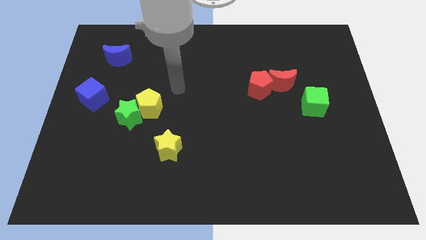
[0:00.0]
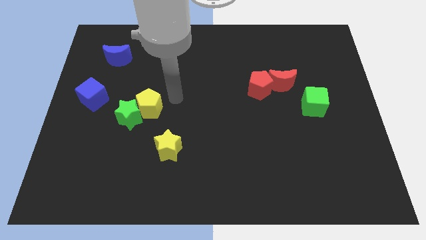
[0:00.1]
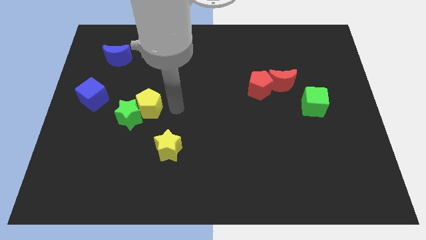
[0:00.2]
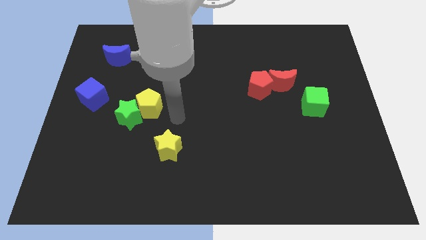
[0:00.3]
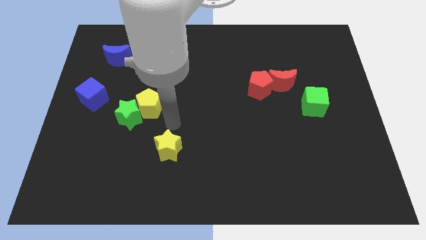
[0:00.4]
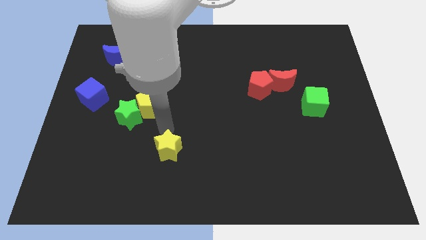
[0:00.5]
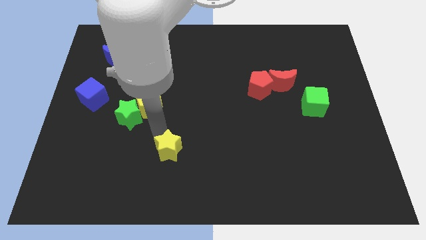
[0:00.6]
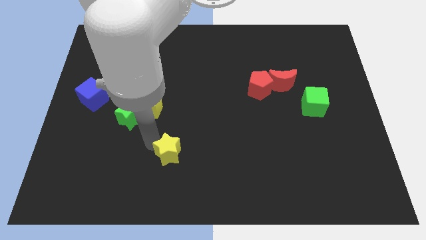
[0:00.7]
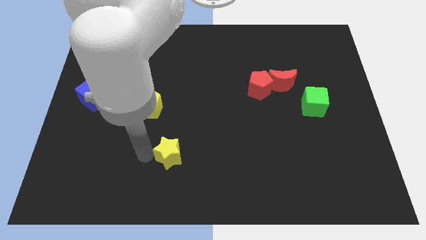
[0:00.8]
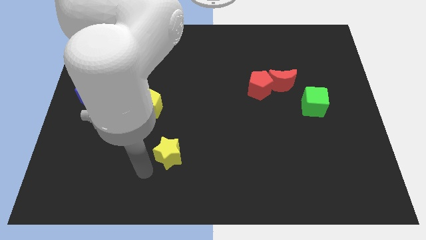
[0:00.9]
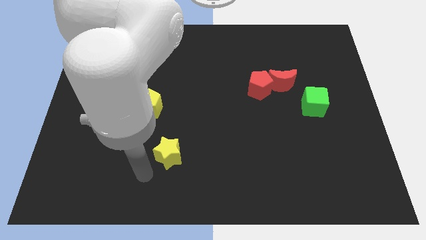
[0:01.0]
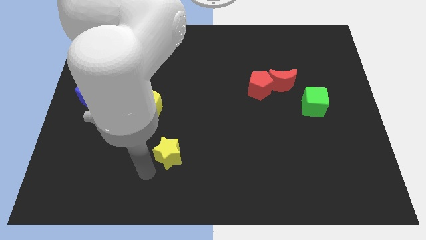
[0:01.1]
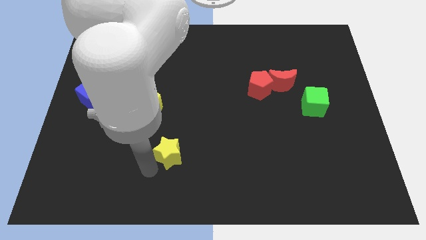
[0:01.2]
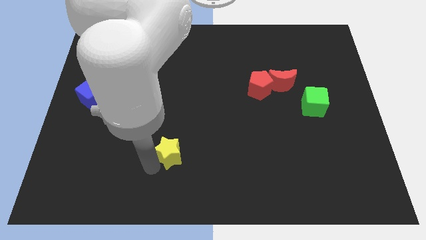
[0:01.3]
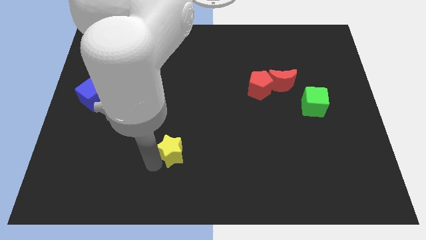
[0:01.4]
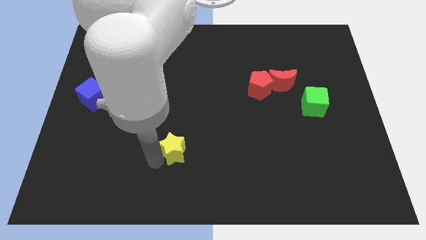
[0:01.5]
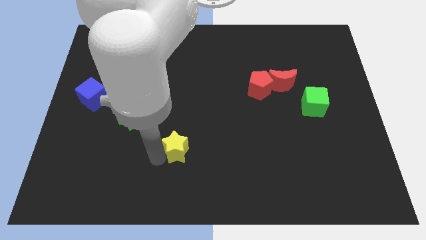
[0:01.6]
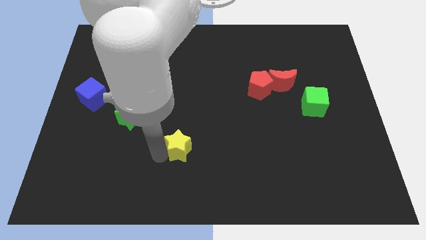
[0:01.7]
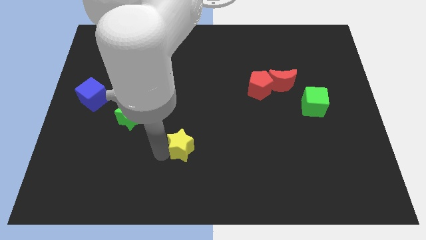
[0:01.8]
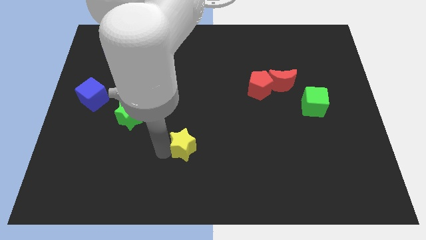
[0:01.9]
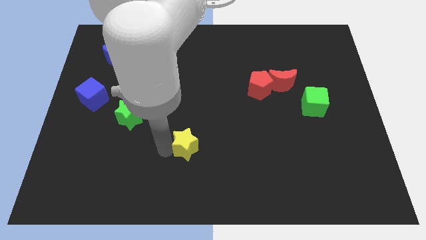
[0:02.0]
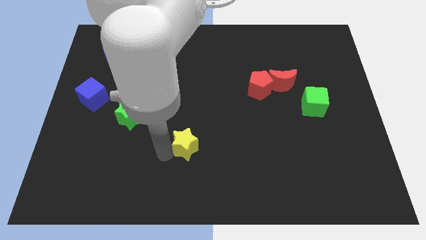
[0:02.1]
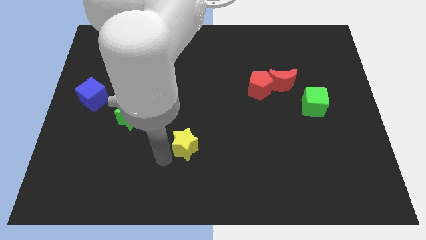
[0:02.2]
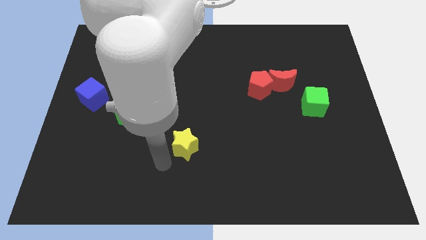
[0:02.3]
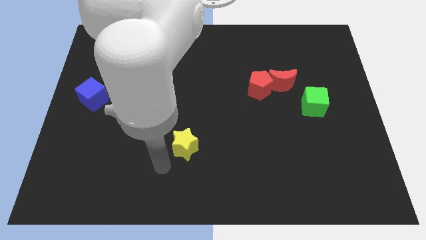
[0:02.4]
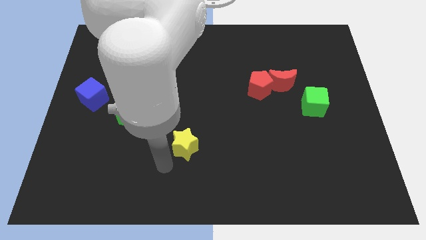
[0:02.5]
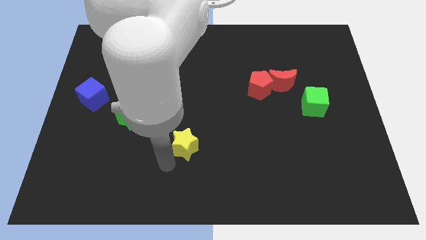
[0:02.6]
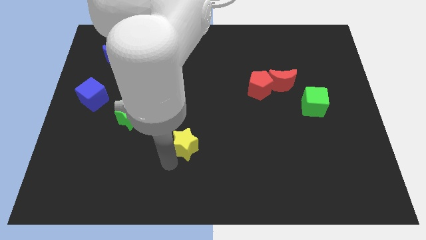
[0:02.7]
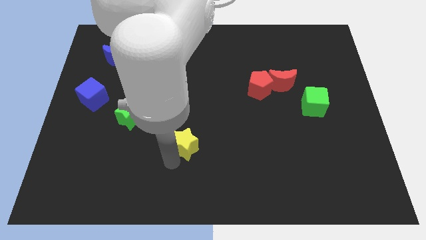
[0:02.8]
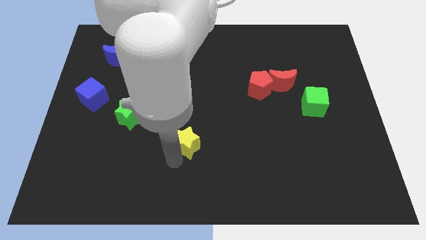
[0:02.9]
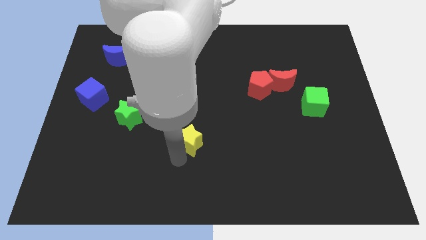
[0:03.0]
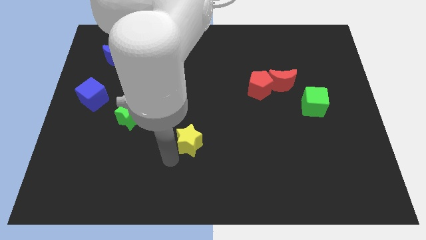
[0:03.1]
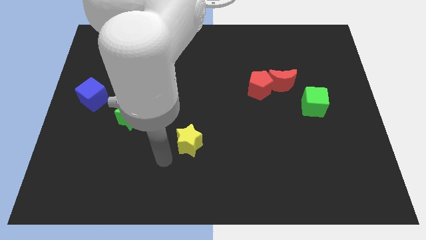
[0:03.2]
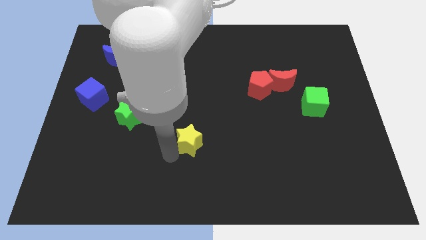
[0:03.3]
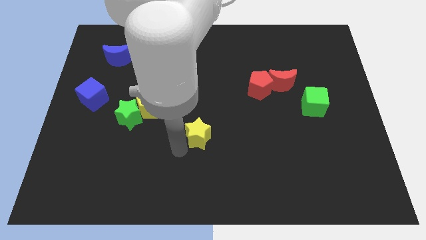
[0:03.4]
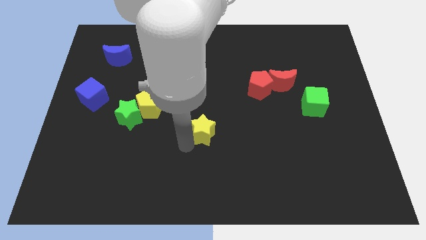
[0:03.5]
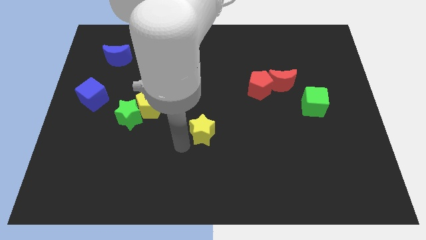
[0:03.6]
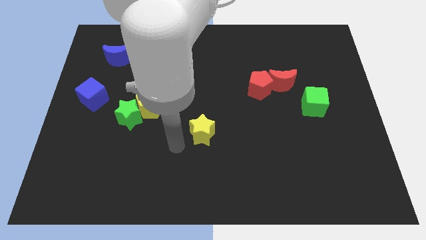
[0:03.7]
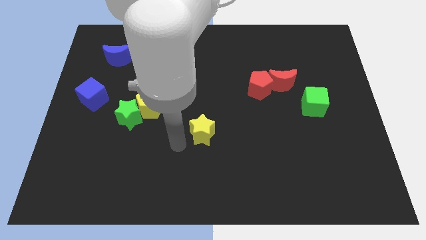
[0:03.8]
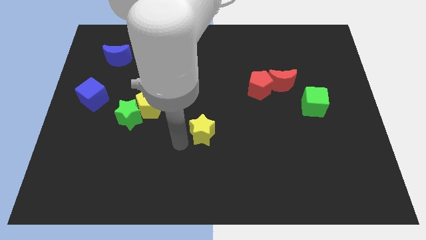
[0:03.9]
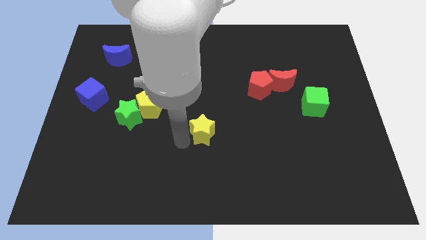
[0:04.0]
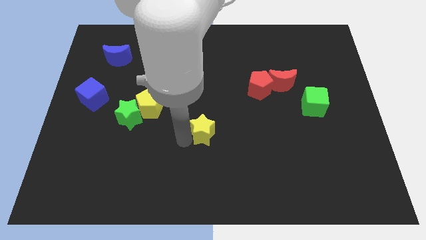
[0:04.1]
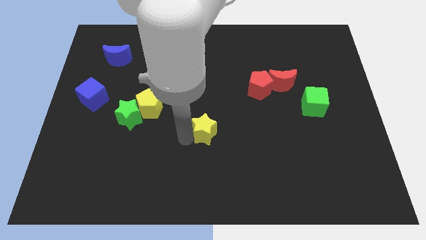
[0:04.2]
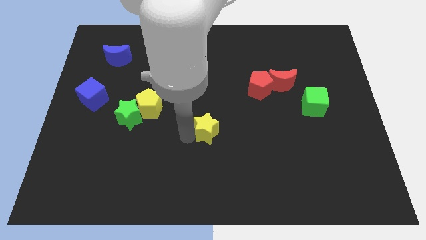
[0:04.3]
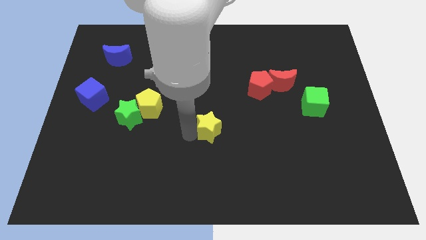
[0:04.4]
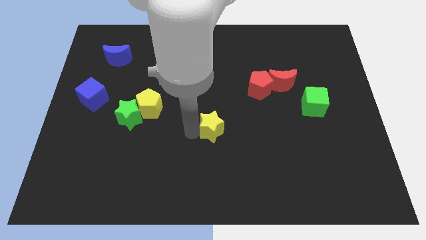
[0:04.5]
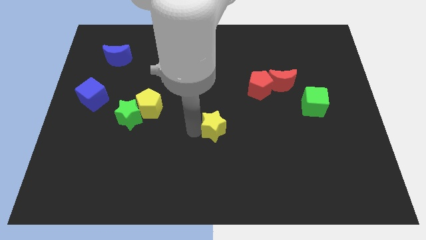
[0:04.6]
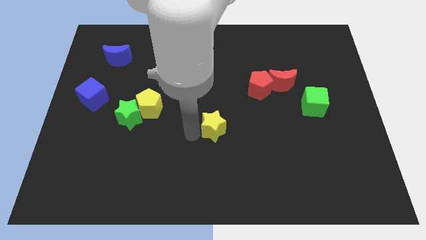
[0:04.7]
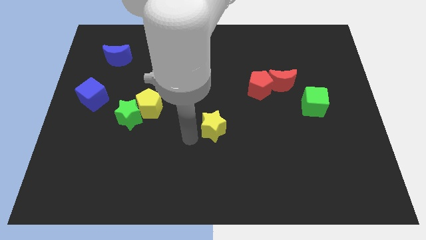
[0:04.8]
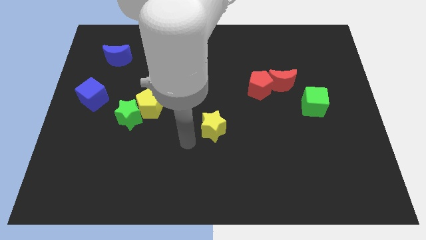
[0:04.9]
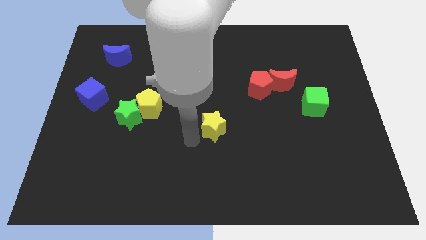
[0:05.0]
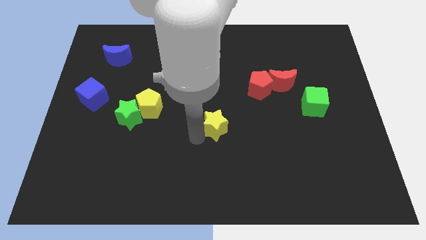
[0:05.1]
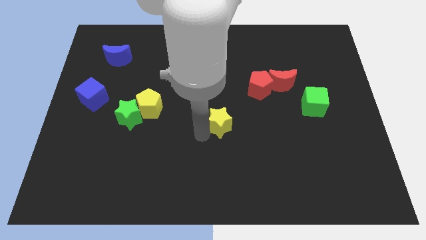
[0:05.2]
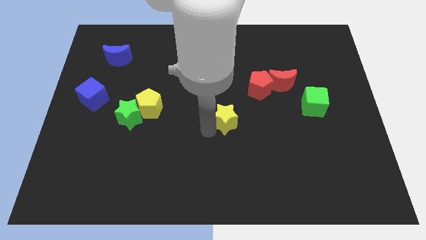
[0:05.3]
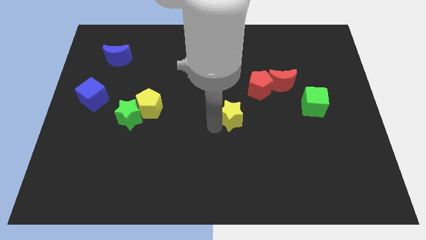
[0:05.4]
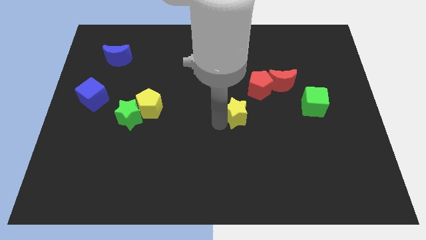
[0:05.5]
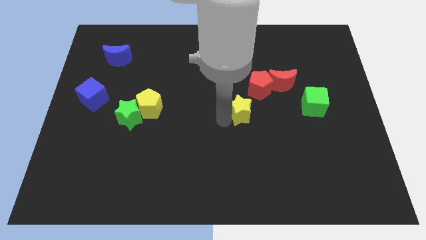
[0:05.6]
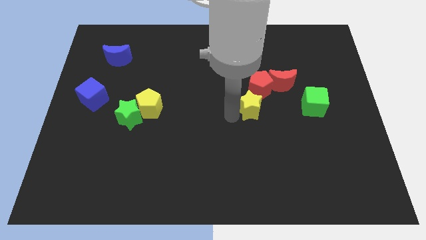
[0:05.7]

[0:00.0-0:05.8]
put the yellow star left of the green cube
